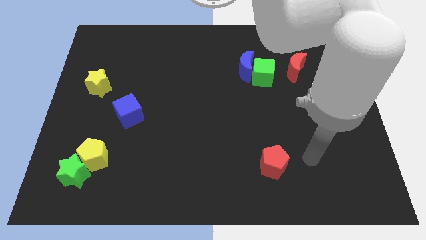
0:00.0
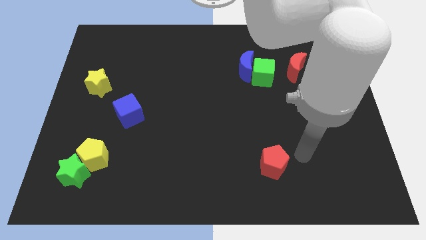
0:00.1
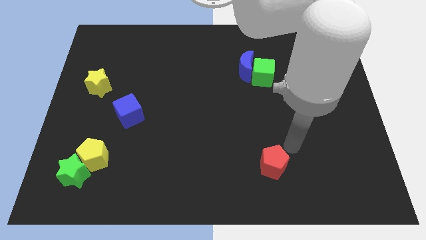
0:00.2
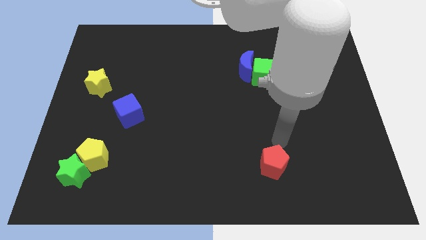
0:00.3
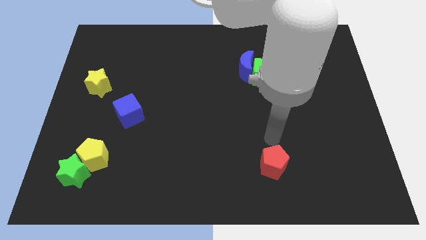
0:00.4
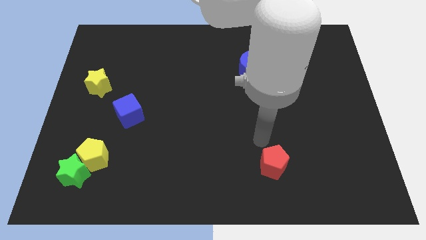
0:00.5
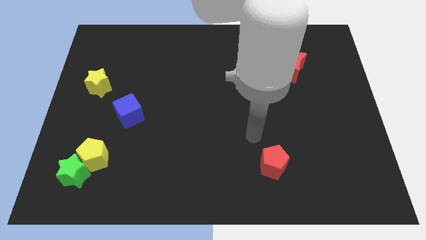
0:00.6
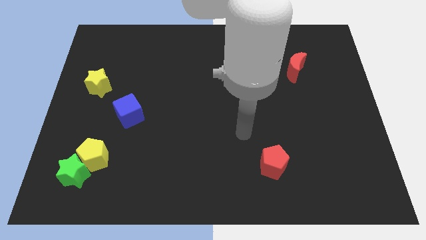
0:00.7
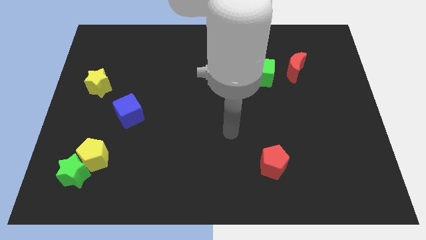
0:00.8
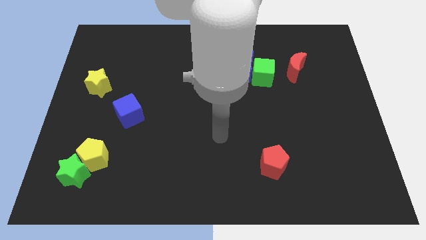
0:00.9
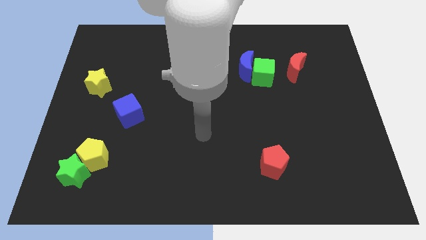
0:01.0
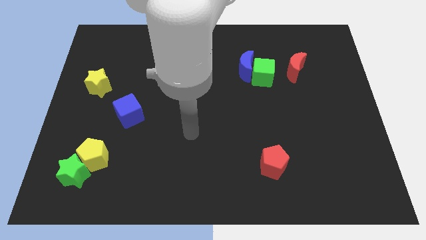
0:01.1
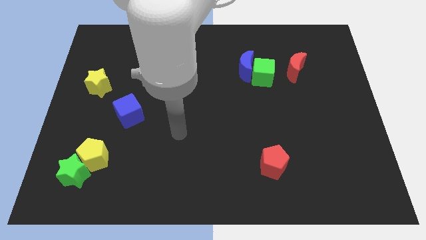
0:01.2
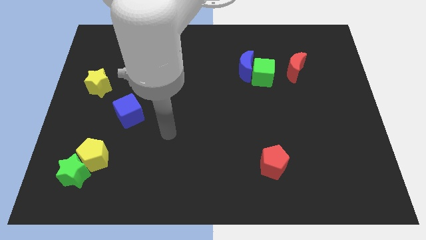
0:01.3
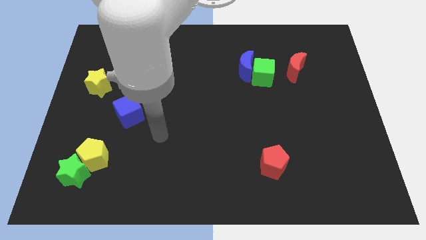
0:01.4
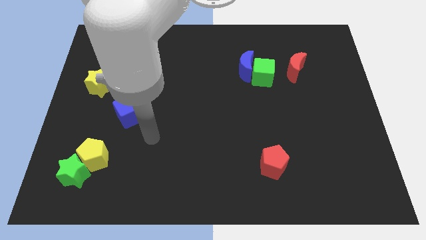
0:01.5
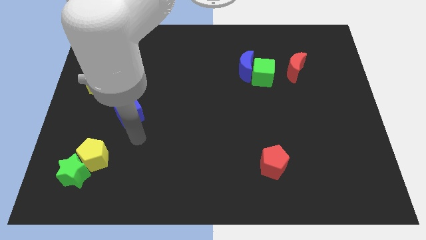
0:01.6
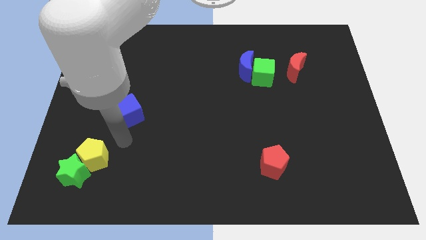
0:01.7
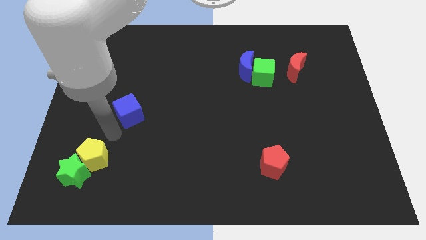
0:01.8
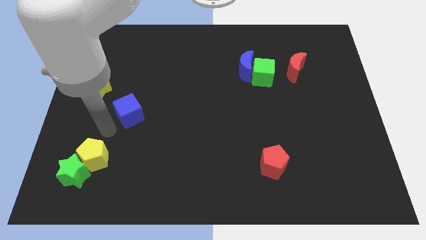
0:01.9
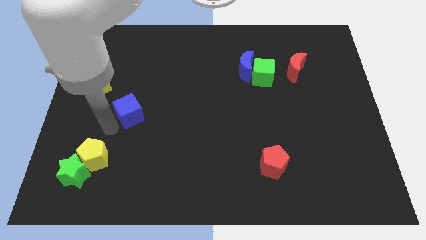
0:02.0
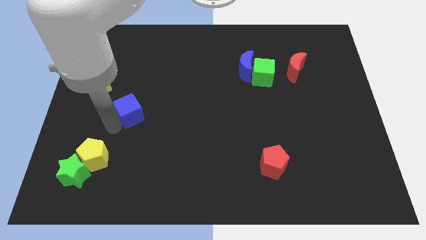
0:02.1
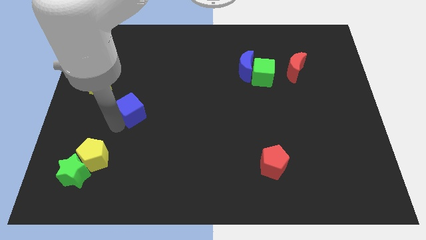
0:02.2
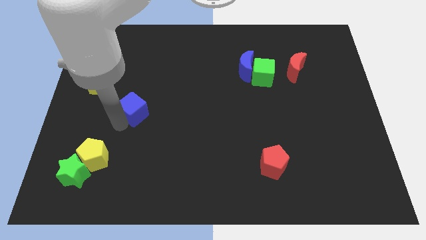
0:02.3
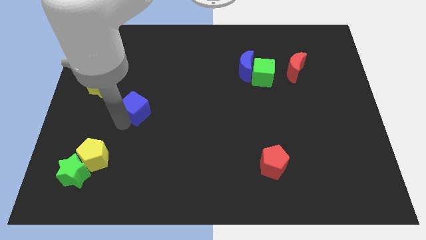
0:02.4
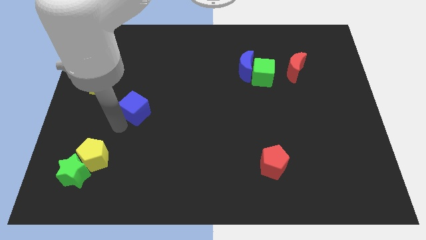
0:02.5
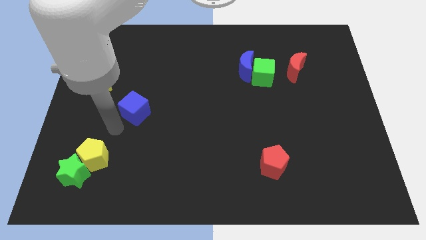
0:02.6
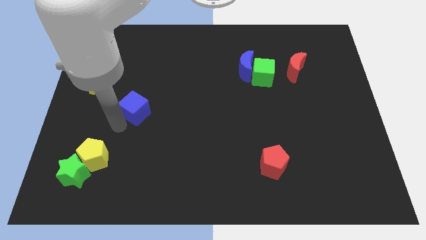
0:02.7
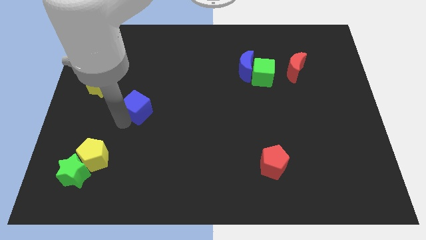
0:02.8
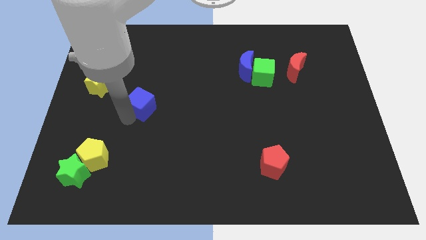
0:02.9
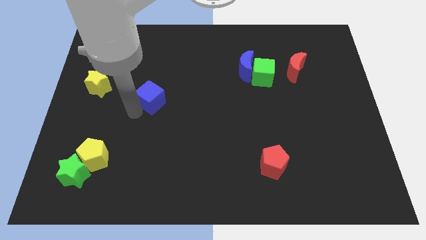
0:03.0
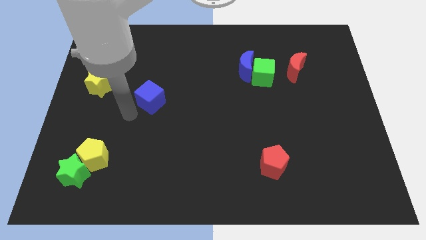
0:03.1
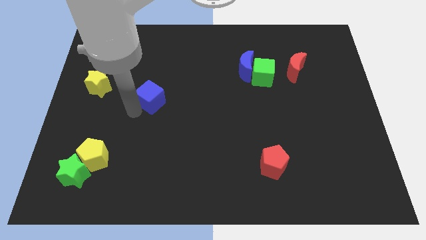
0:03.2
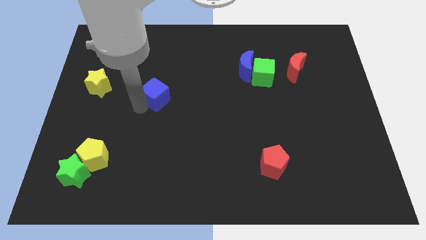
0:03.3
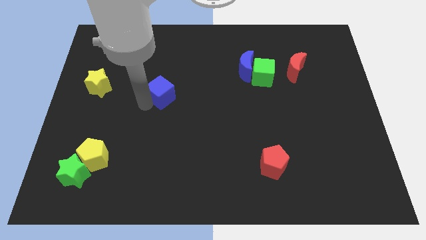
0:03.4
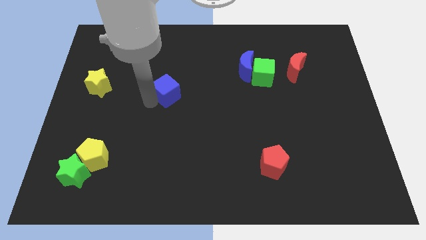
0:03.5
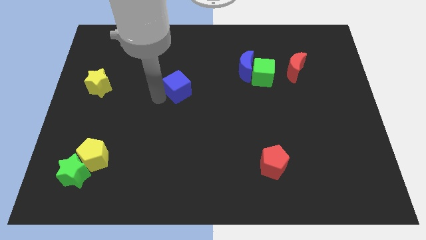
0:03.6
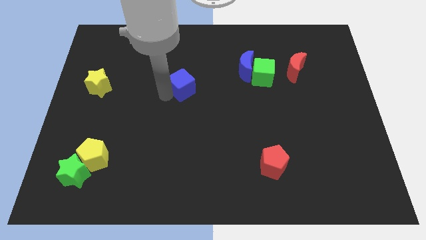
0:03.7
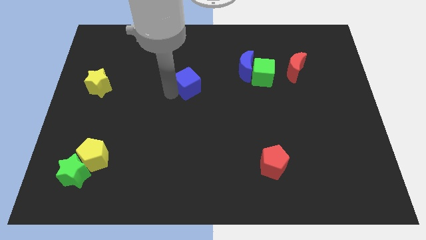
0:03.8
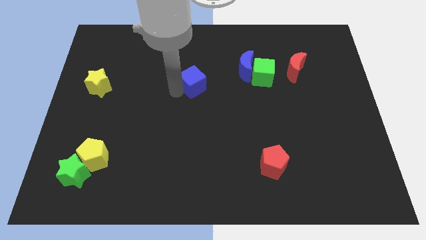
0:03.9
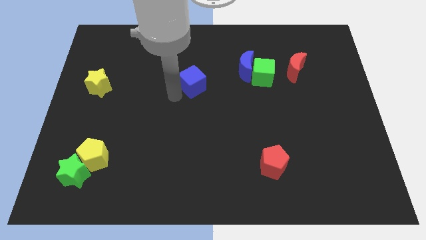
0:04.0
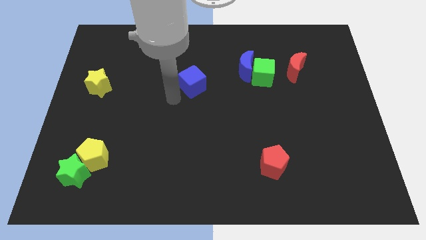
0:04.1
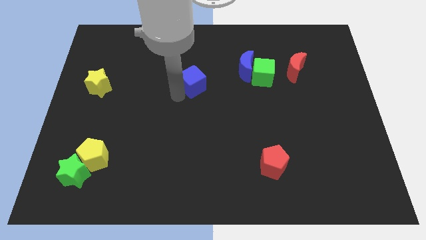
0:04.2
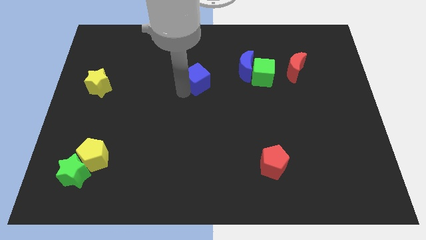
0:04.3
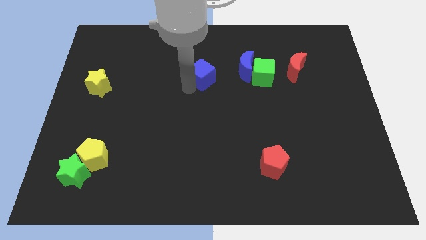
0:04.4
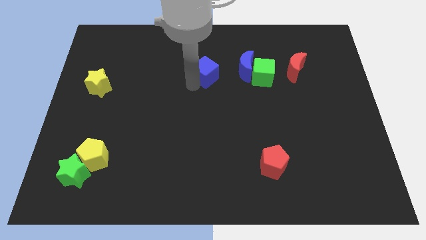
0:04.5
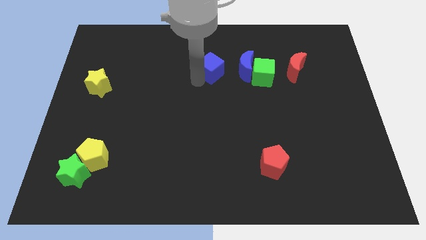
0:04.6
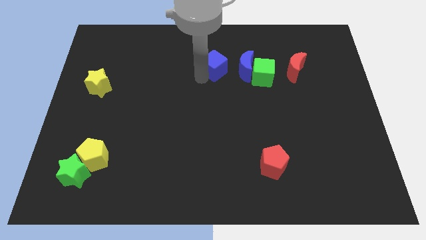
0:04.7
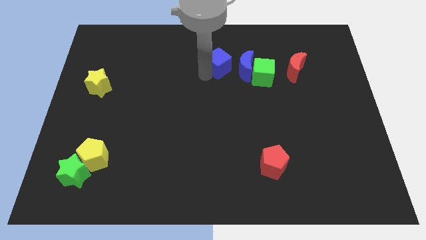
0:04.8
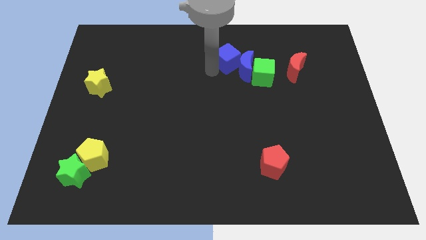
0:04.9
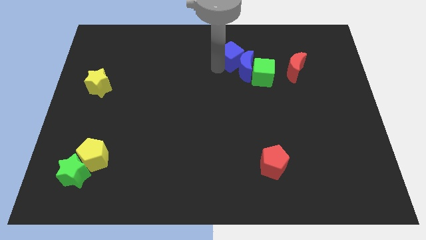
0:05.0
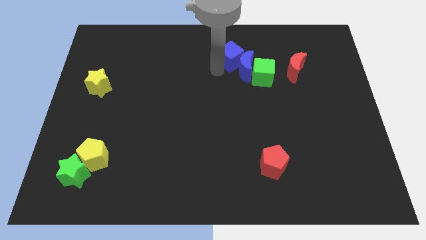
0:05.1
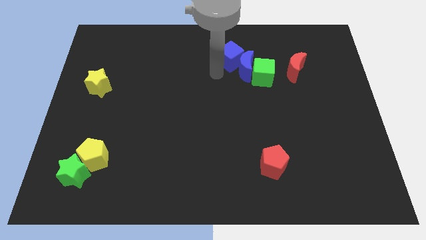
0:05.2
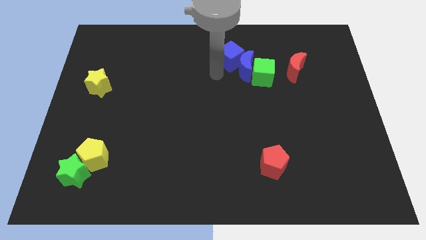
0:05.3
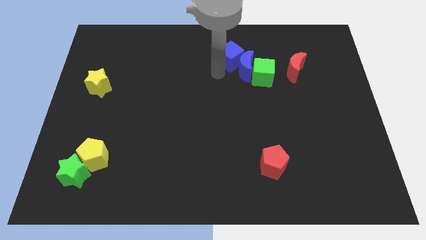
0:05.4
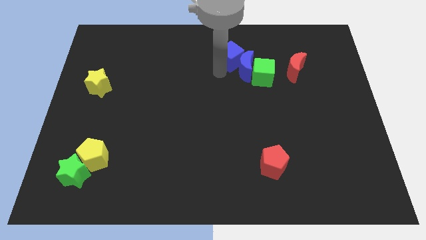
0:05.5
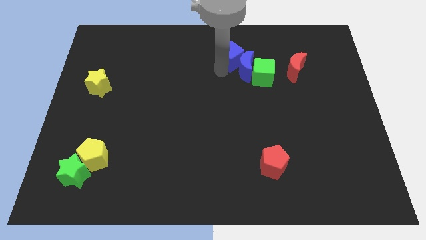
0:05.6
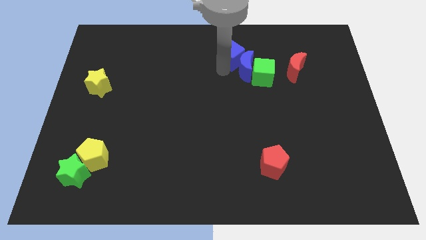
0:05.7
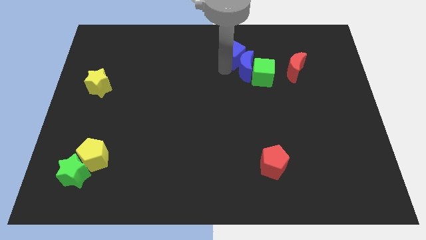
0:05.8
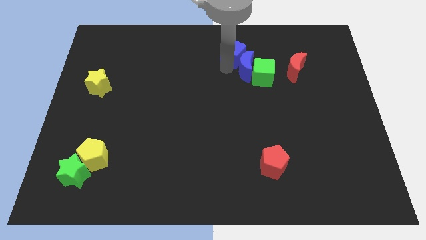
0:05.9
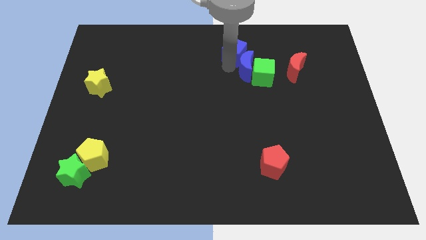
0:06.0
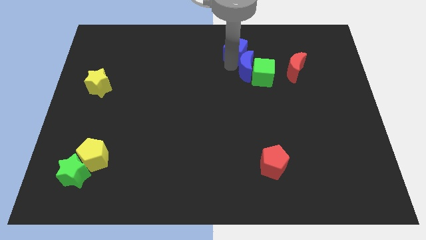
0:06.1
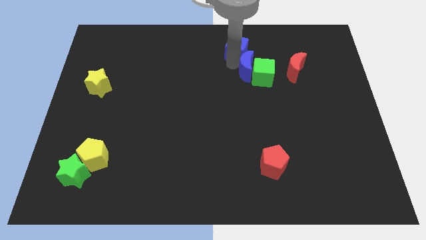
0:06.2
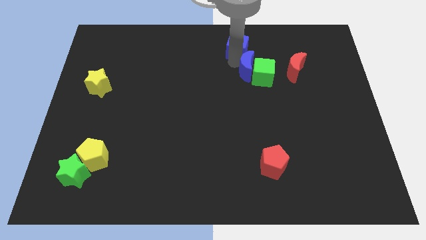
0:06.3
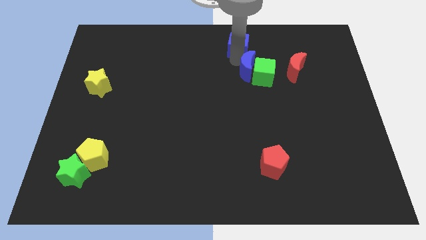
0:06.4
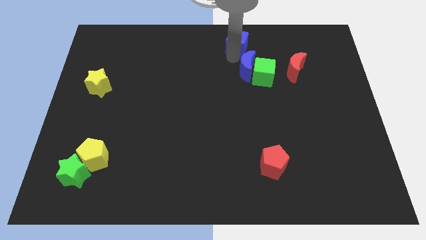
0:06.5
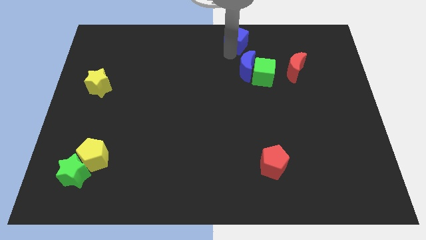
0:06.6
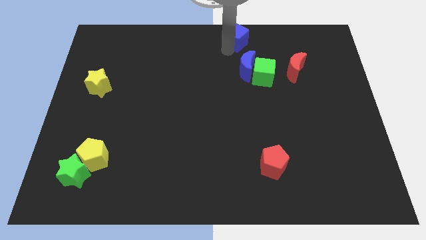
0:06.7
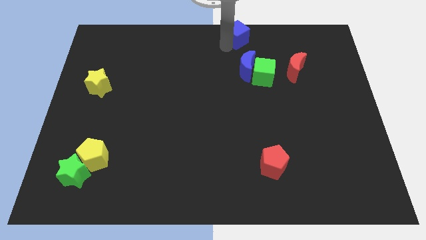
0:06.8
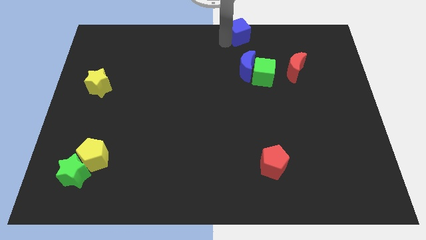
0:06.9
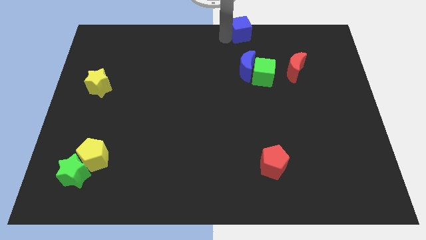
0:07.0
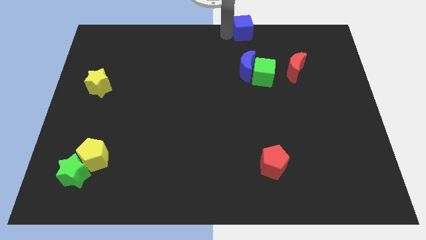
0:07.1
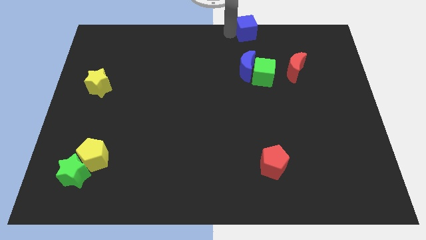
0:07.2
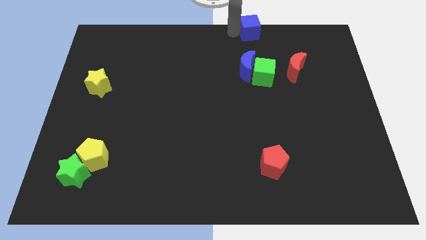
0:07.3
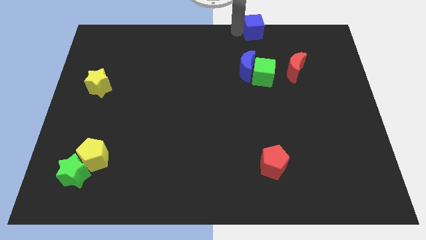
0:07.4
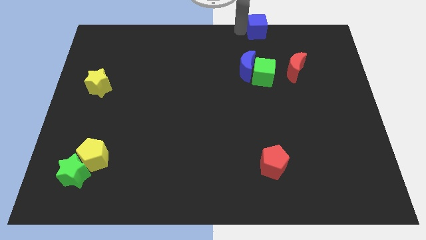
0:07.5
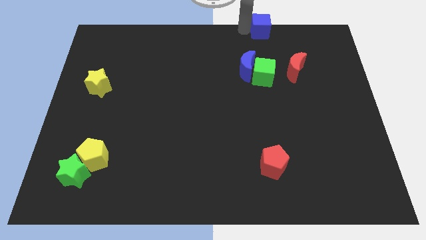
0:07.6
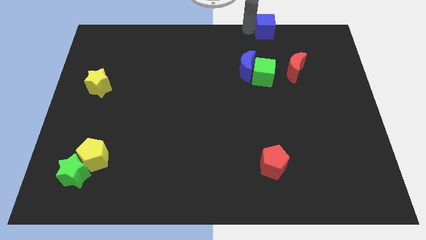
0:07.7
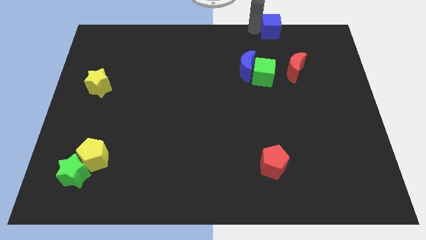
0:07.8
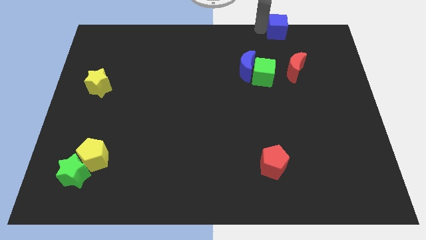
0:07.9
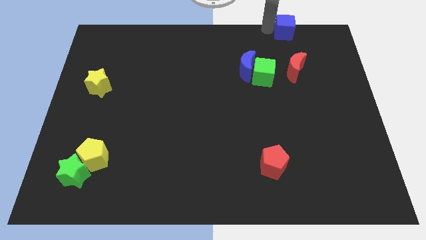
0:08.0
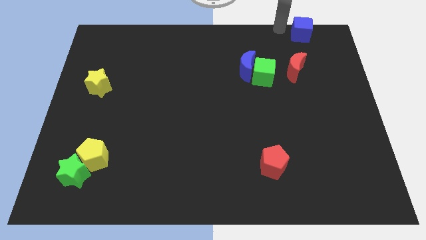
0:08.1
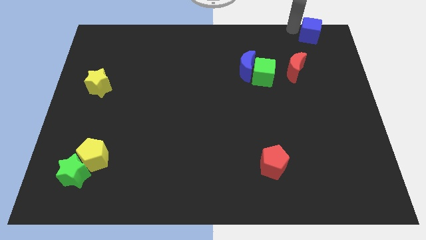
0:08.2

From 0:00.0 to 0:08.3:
move the blue cube to the top right of the board
